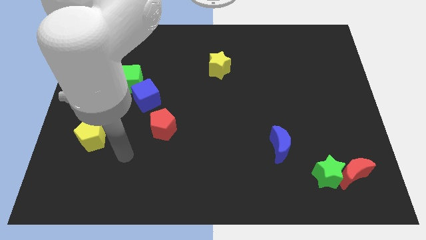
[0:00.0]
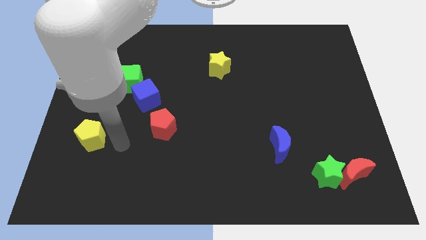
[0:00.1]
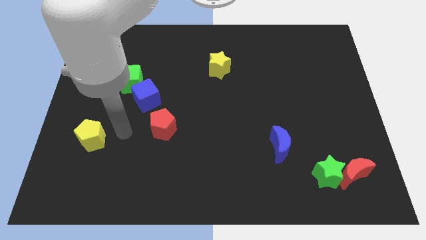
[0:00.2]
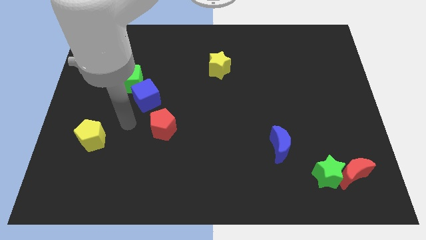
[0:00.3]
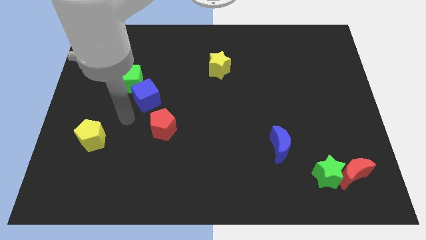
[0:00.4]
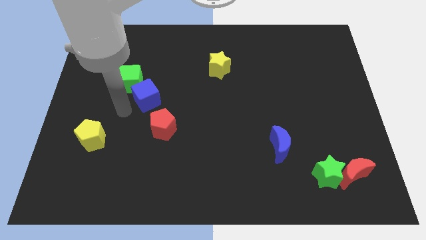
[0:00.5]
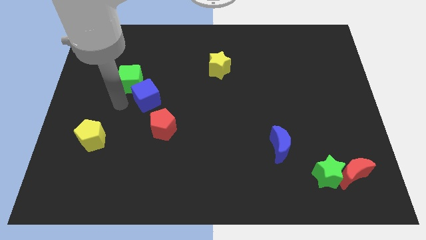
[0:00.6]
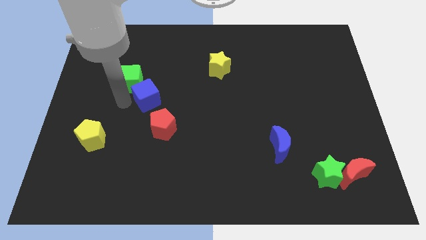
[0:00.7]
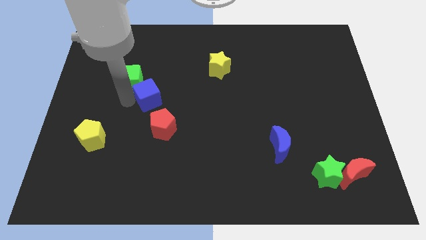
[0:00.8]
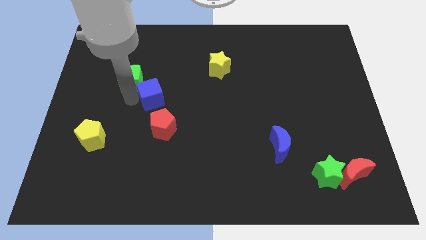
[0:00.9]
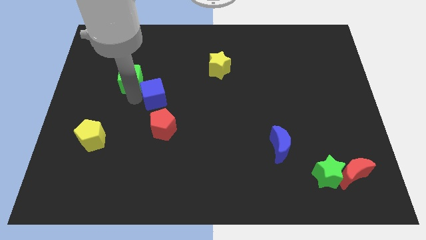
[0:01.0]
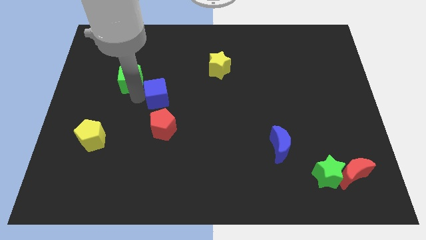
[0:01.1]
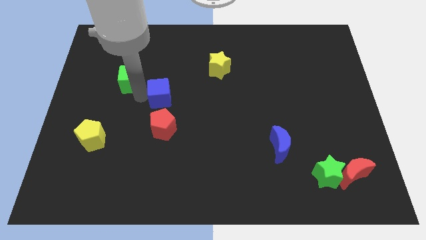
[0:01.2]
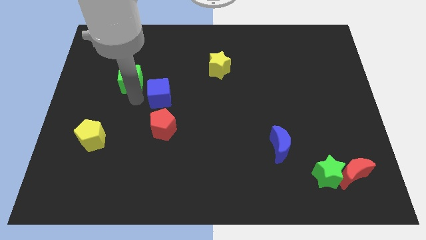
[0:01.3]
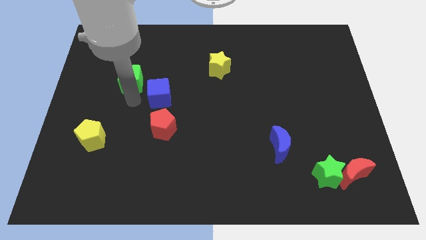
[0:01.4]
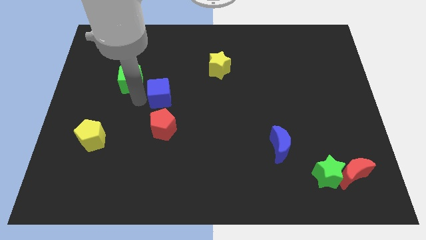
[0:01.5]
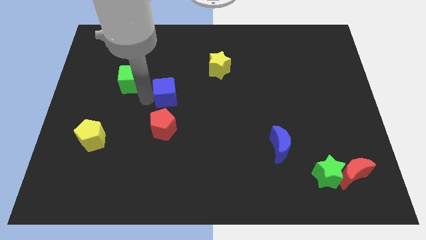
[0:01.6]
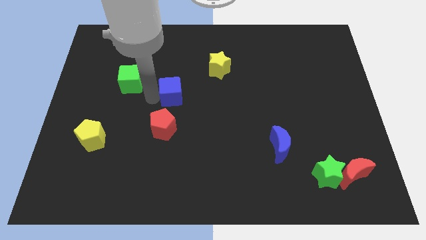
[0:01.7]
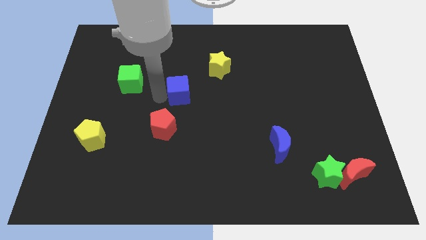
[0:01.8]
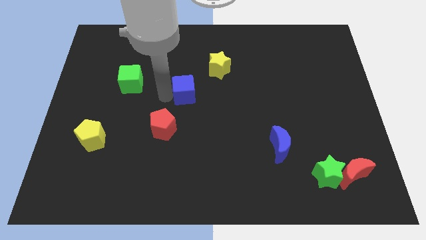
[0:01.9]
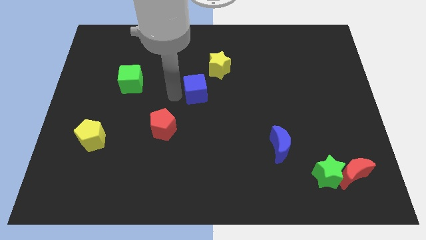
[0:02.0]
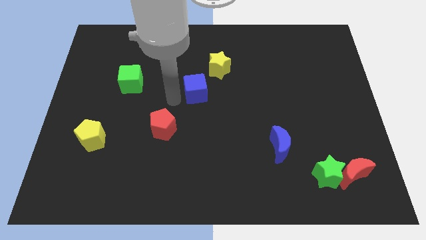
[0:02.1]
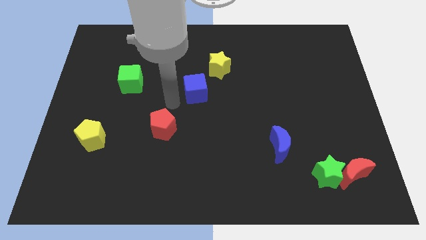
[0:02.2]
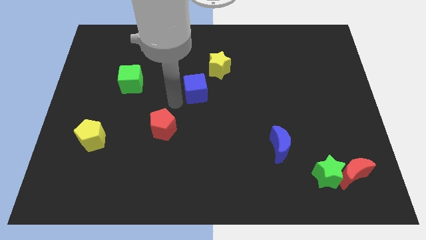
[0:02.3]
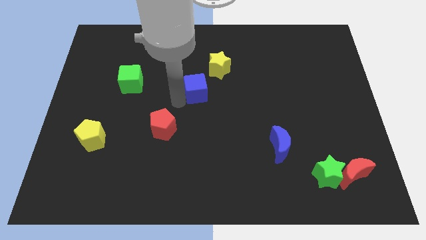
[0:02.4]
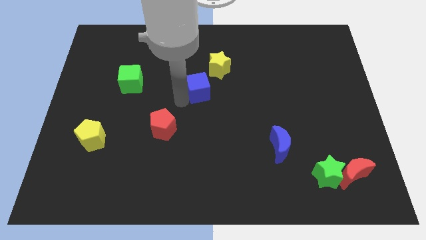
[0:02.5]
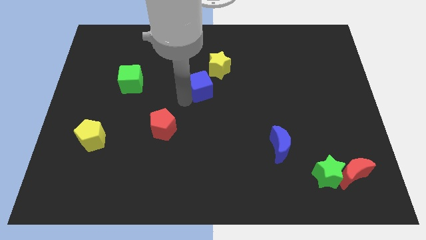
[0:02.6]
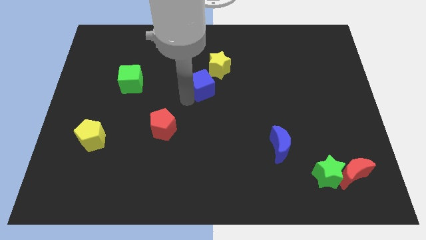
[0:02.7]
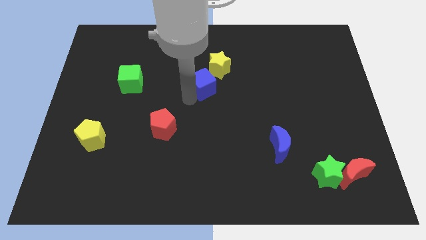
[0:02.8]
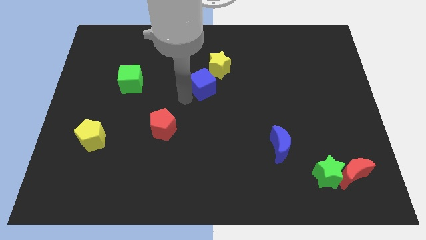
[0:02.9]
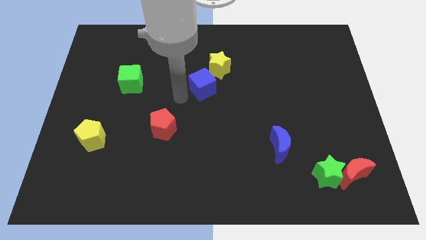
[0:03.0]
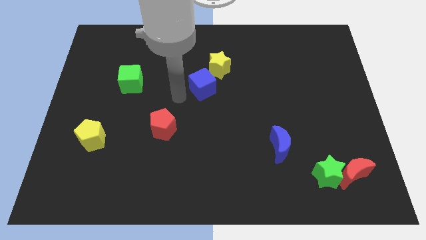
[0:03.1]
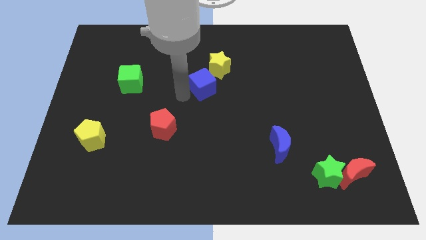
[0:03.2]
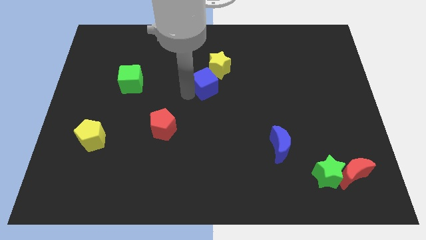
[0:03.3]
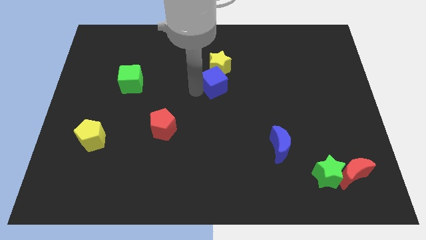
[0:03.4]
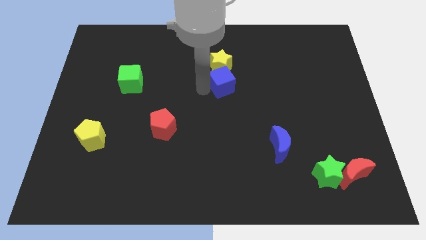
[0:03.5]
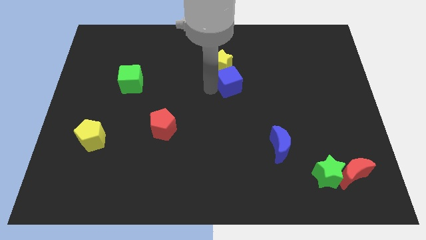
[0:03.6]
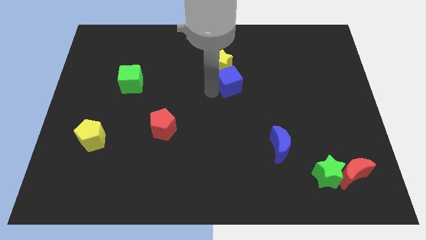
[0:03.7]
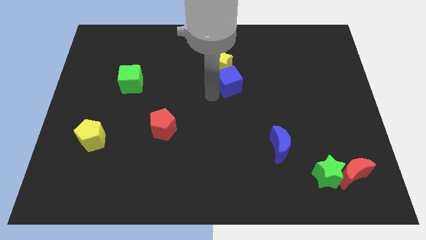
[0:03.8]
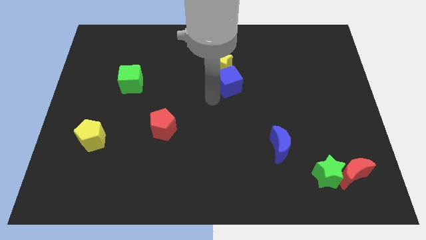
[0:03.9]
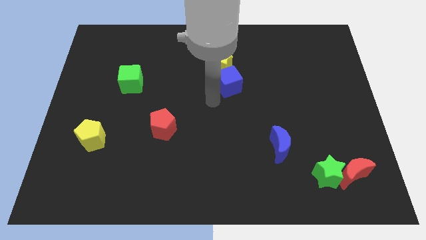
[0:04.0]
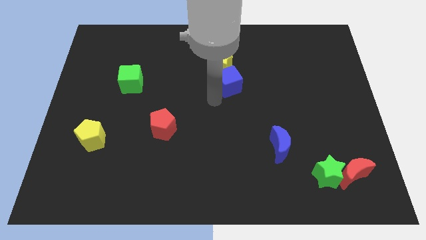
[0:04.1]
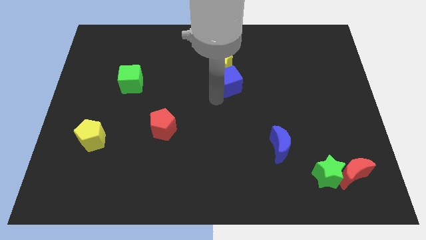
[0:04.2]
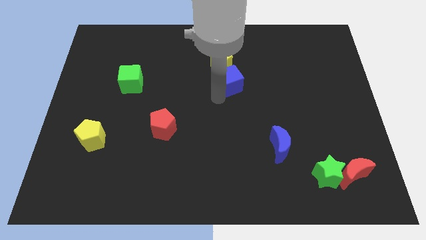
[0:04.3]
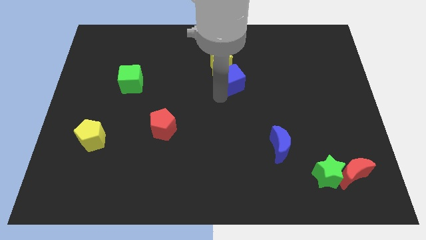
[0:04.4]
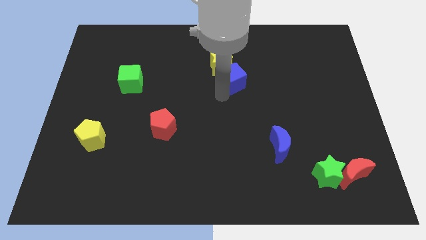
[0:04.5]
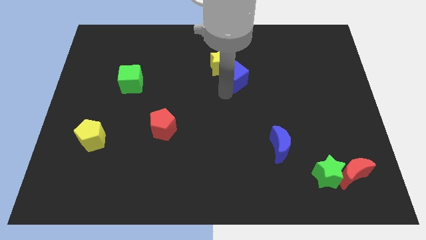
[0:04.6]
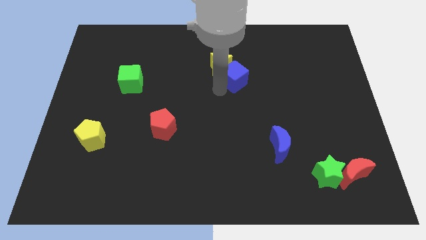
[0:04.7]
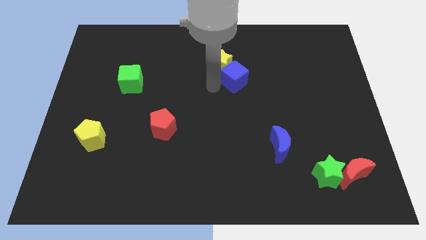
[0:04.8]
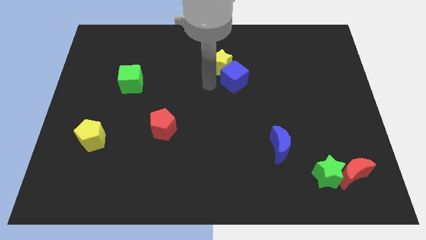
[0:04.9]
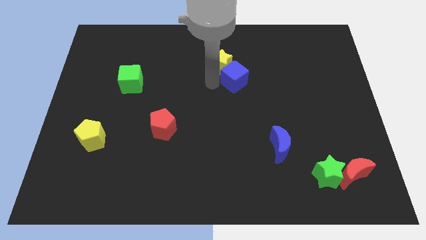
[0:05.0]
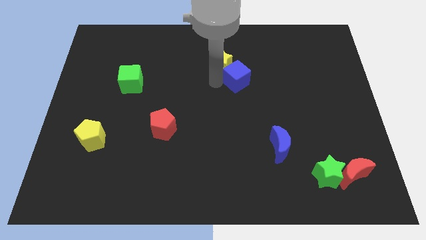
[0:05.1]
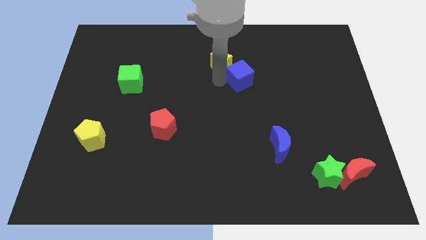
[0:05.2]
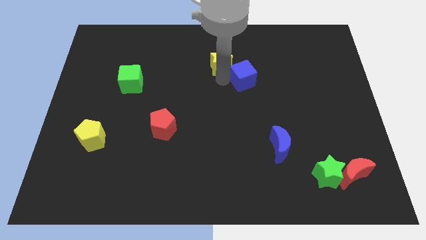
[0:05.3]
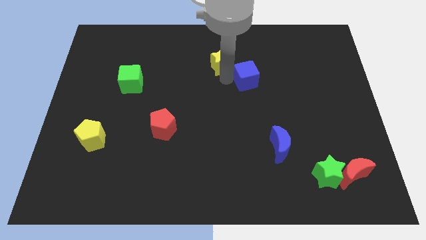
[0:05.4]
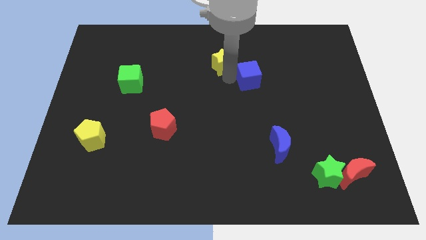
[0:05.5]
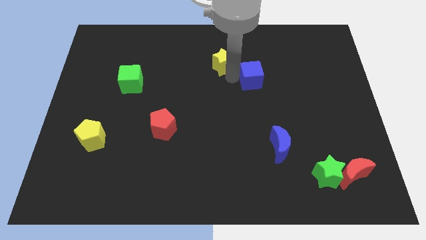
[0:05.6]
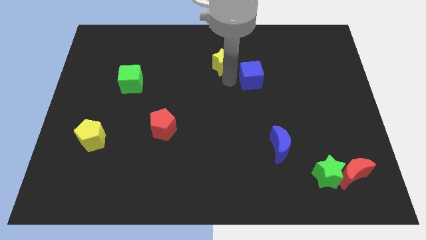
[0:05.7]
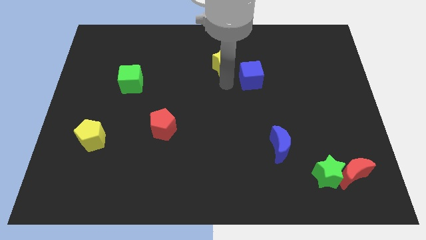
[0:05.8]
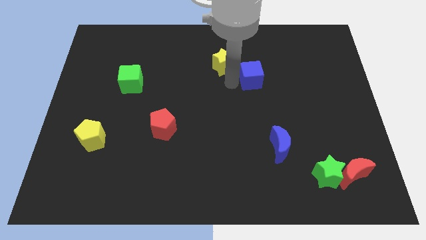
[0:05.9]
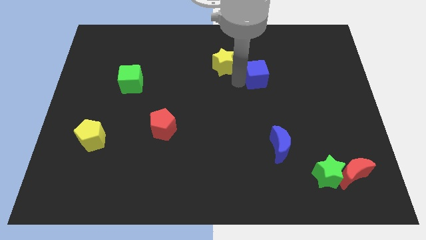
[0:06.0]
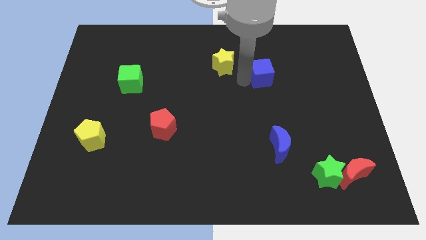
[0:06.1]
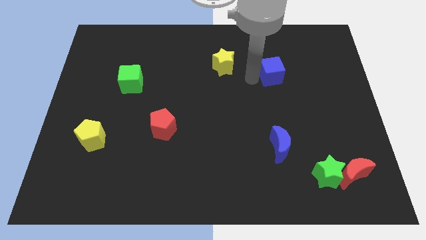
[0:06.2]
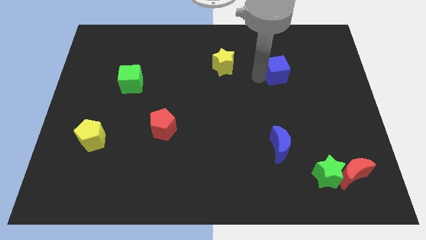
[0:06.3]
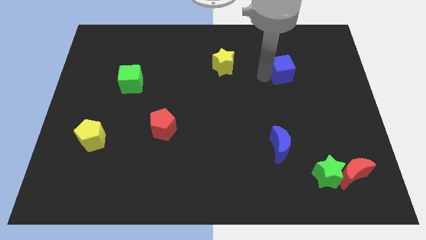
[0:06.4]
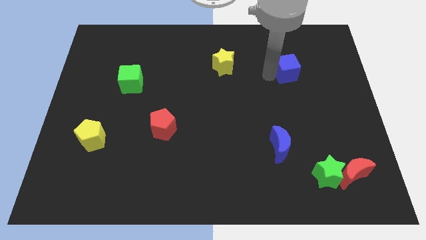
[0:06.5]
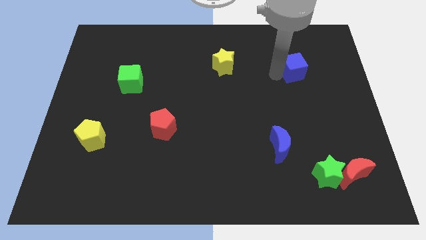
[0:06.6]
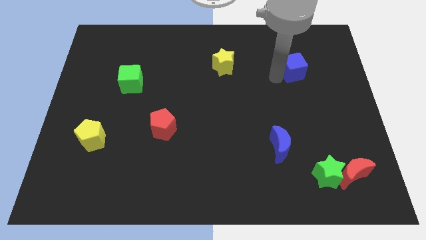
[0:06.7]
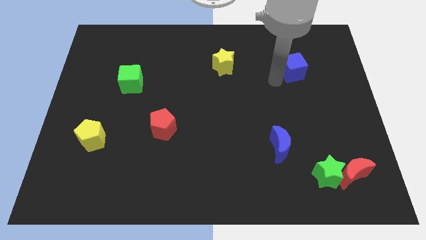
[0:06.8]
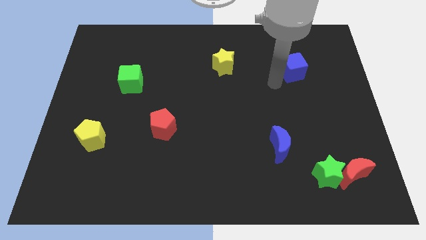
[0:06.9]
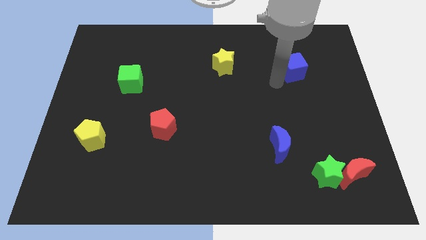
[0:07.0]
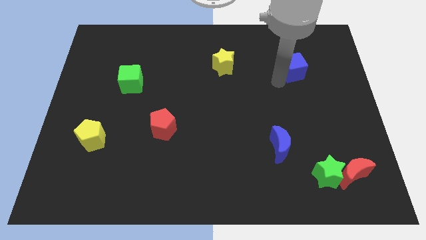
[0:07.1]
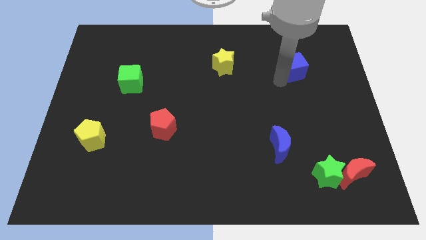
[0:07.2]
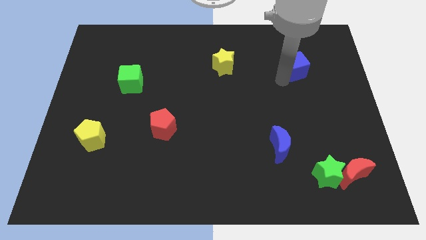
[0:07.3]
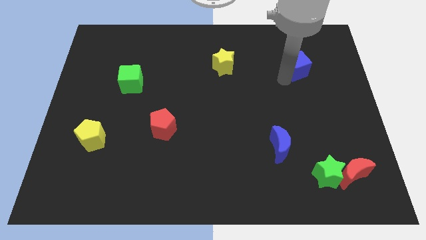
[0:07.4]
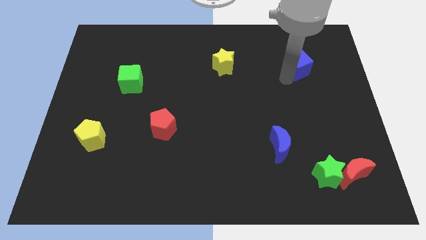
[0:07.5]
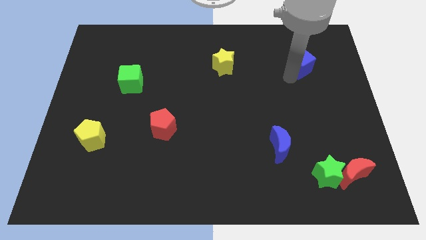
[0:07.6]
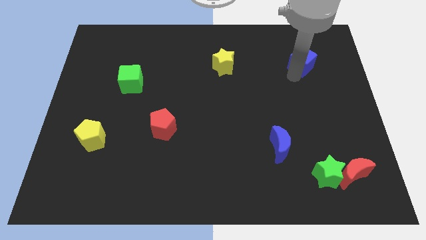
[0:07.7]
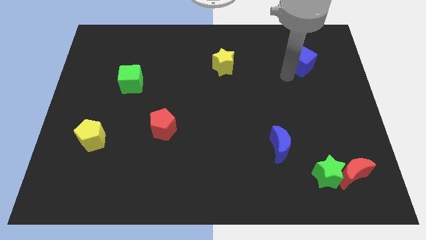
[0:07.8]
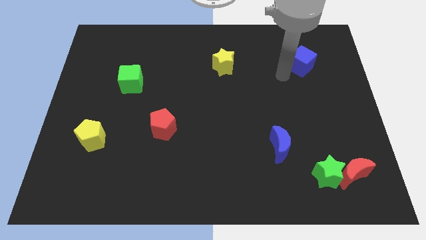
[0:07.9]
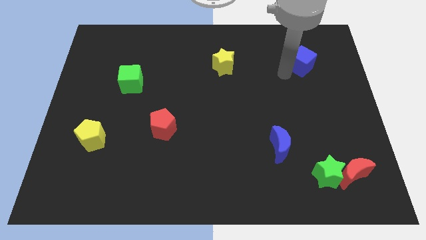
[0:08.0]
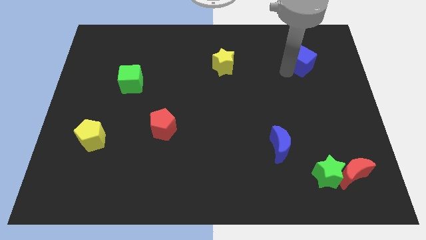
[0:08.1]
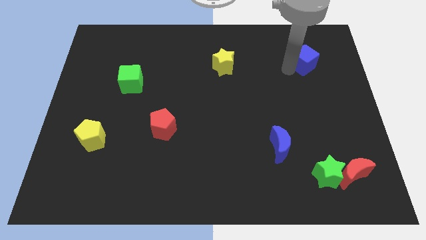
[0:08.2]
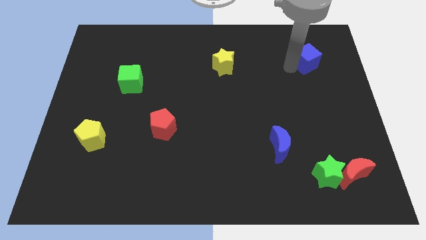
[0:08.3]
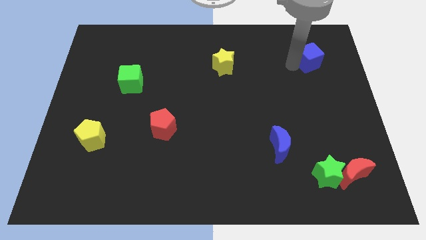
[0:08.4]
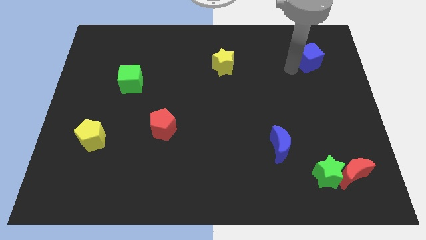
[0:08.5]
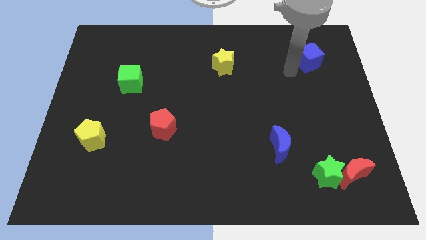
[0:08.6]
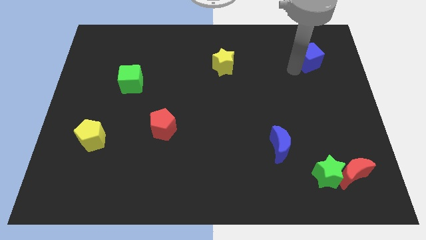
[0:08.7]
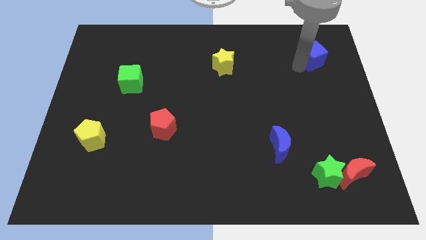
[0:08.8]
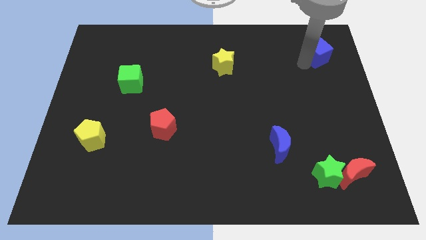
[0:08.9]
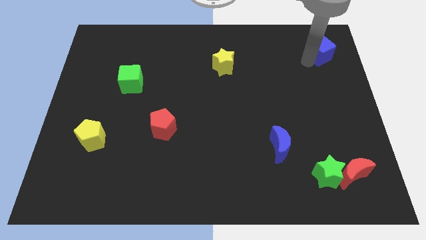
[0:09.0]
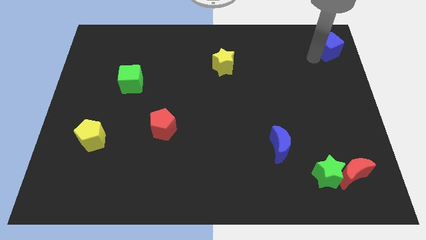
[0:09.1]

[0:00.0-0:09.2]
put the blue cube to the upper right corner
